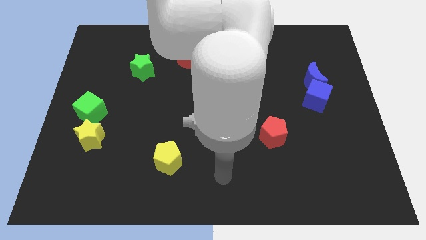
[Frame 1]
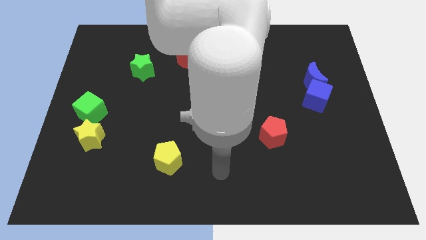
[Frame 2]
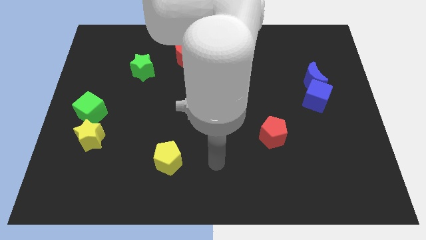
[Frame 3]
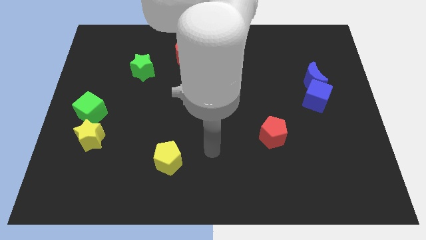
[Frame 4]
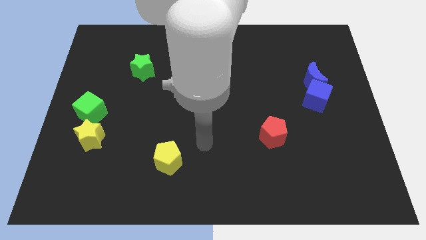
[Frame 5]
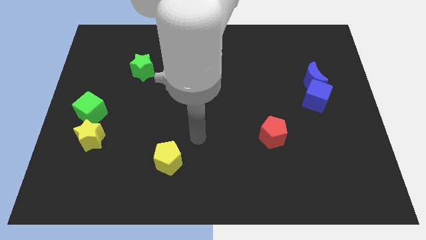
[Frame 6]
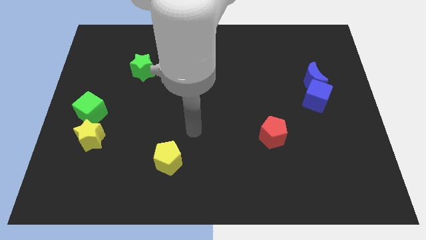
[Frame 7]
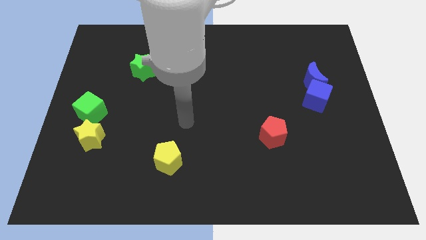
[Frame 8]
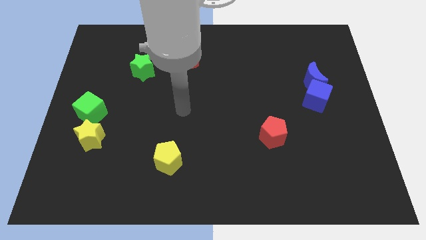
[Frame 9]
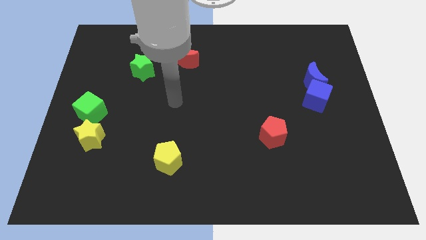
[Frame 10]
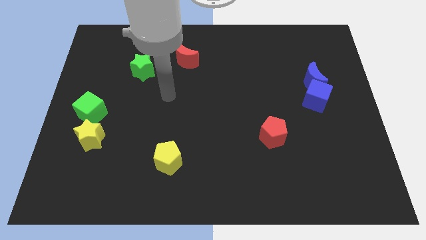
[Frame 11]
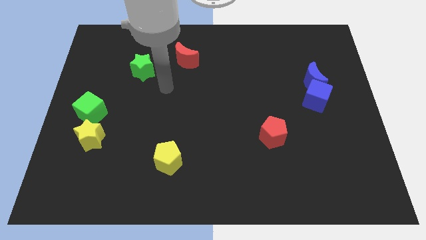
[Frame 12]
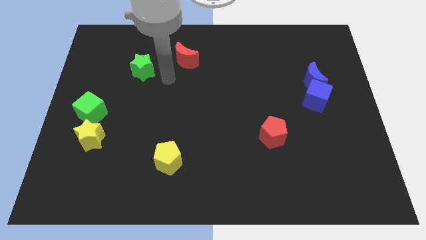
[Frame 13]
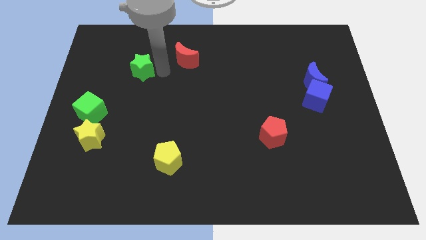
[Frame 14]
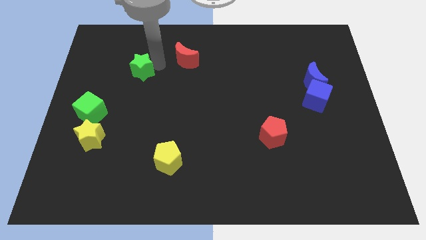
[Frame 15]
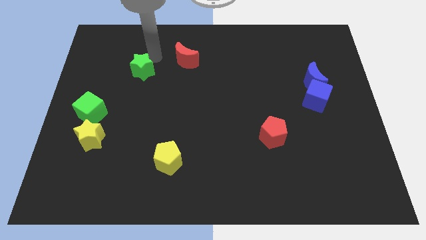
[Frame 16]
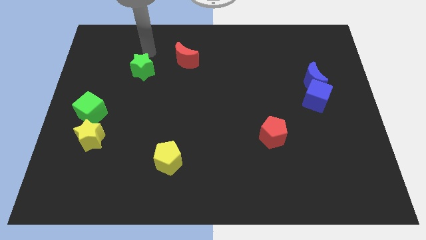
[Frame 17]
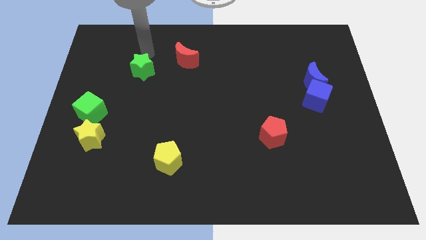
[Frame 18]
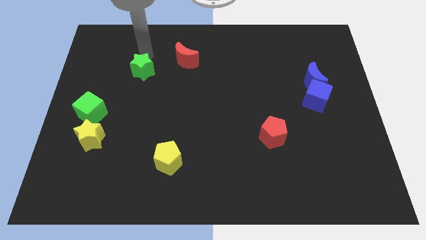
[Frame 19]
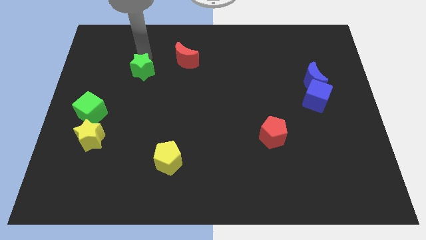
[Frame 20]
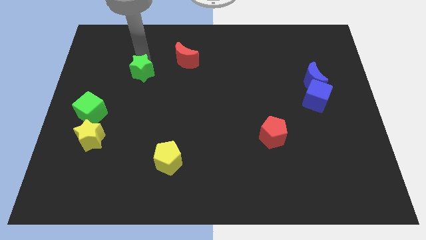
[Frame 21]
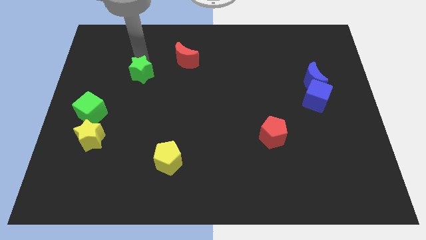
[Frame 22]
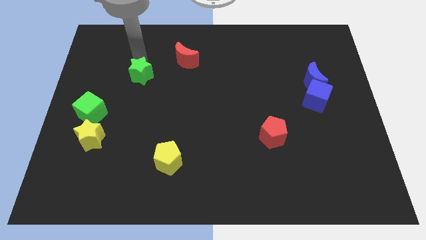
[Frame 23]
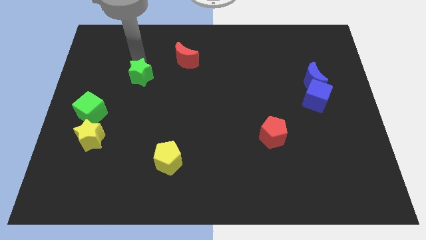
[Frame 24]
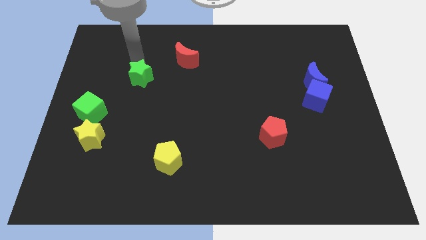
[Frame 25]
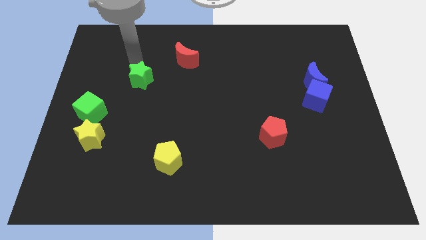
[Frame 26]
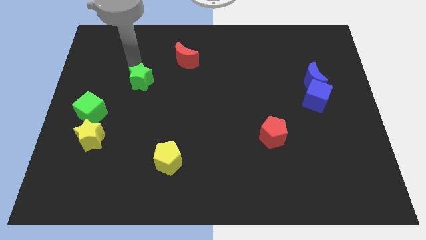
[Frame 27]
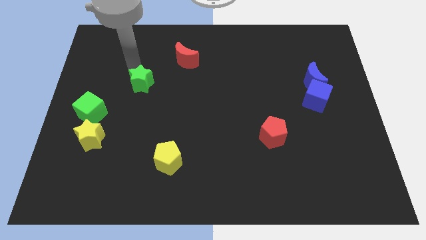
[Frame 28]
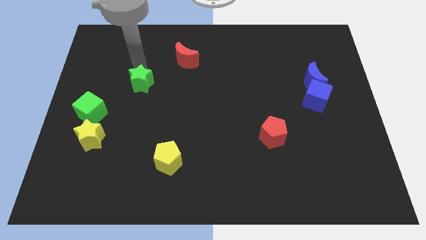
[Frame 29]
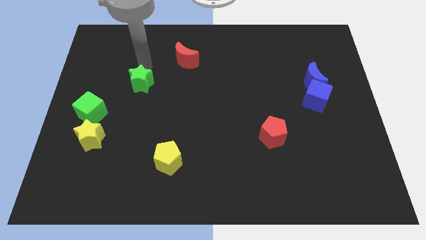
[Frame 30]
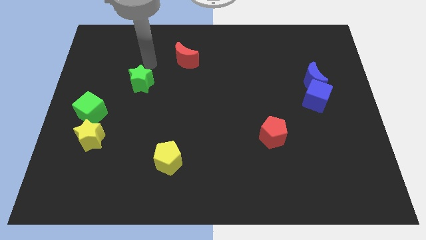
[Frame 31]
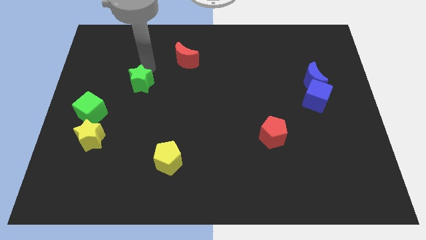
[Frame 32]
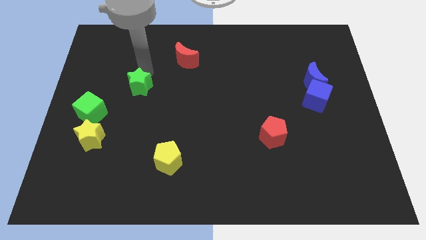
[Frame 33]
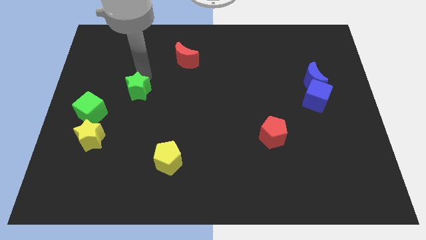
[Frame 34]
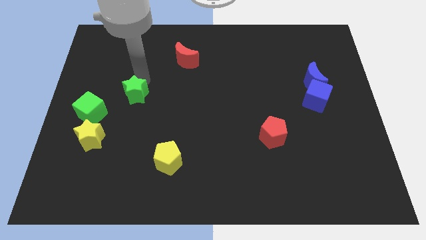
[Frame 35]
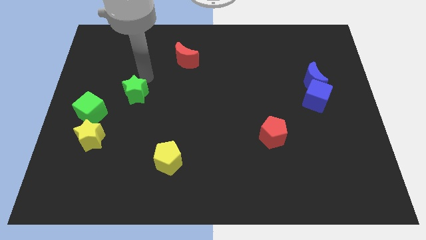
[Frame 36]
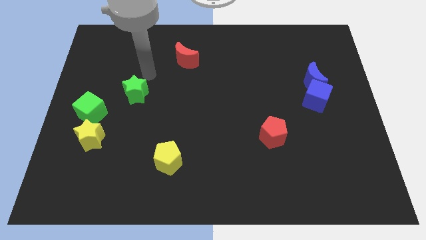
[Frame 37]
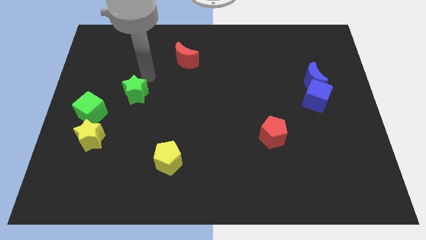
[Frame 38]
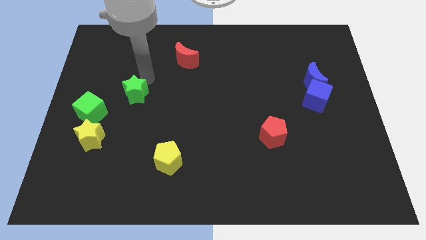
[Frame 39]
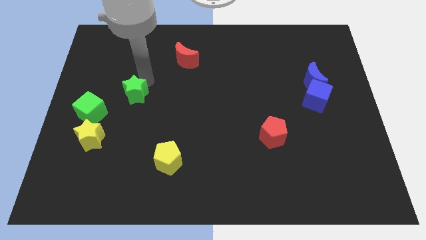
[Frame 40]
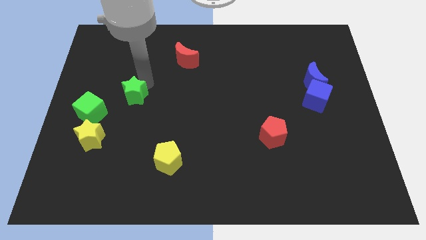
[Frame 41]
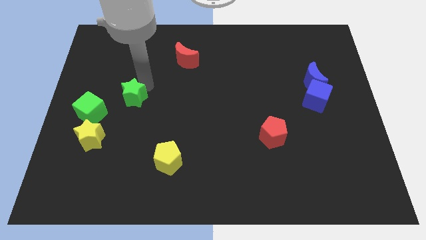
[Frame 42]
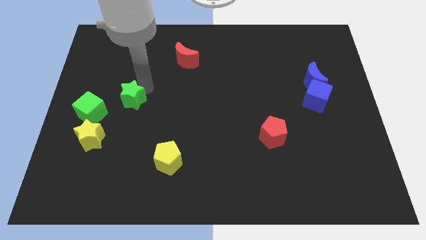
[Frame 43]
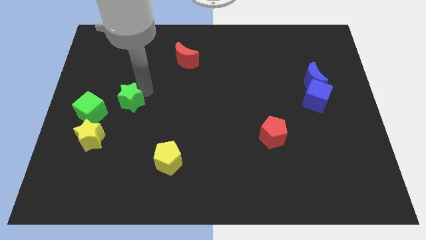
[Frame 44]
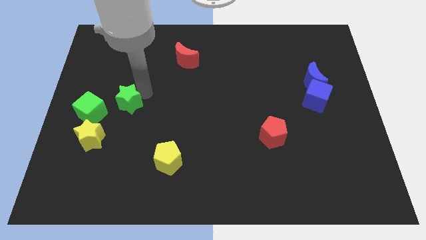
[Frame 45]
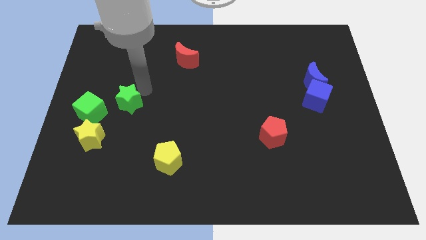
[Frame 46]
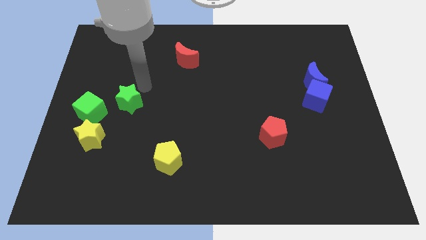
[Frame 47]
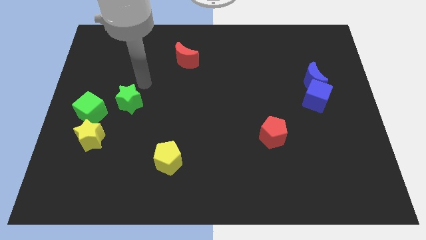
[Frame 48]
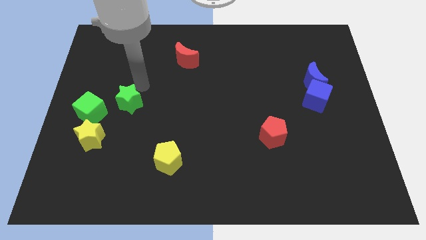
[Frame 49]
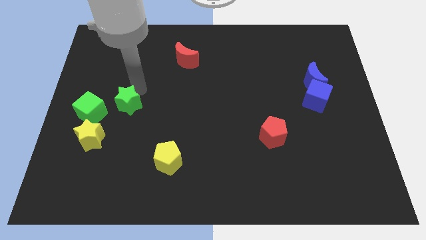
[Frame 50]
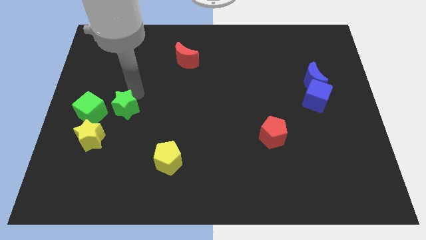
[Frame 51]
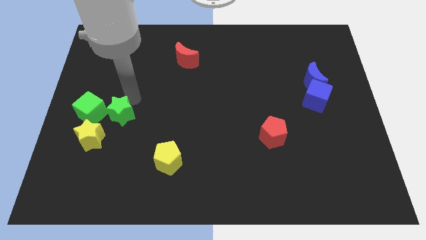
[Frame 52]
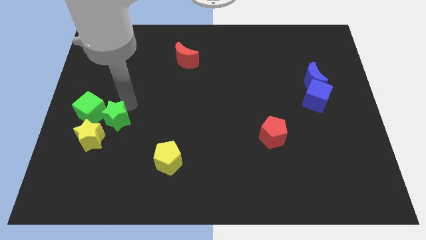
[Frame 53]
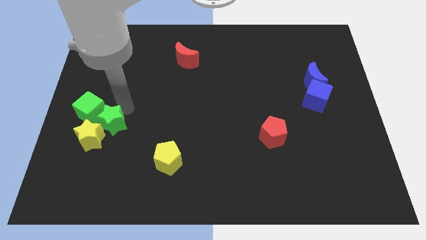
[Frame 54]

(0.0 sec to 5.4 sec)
slide the green star towards the yellow star
